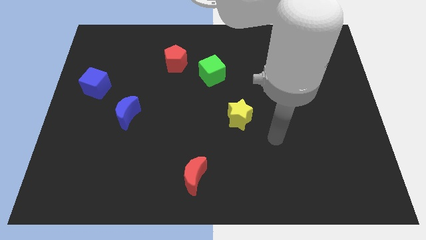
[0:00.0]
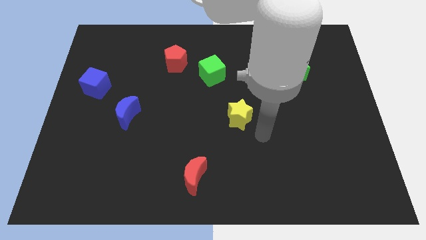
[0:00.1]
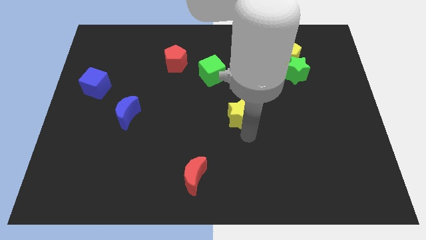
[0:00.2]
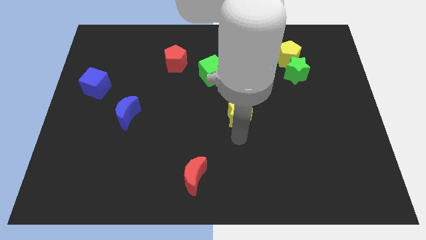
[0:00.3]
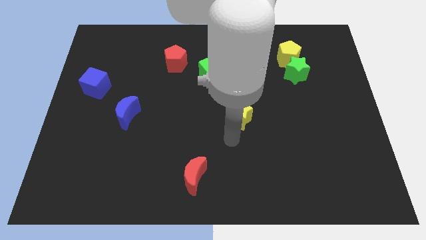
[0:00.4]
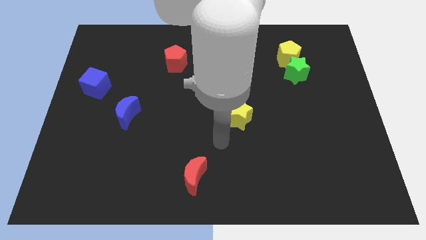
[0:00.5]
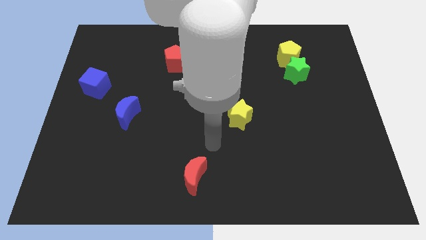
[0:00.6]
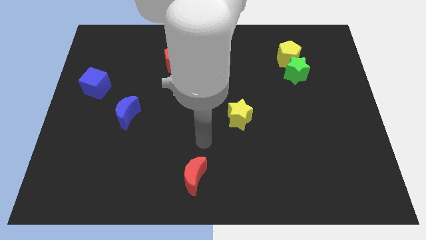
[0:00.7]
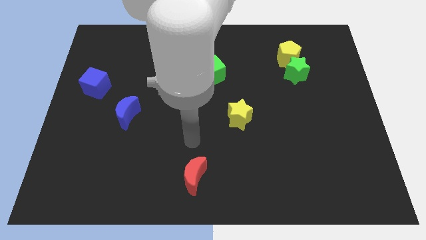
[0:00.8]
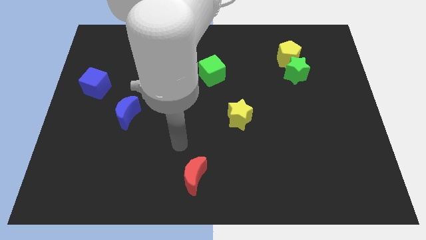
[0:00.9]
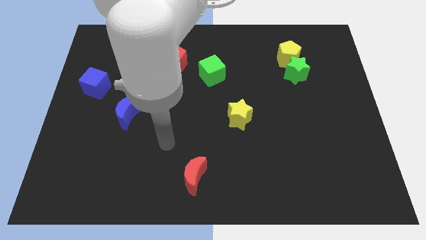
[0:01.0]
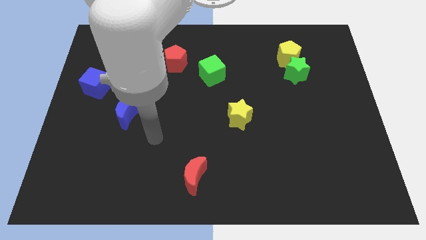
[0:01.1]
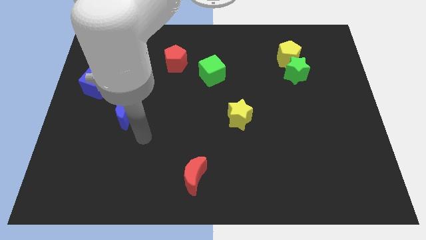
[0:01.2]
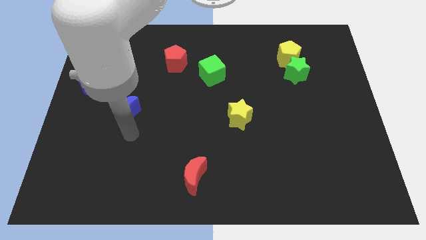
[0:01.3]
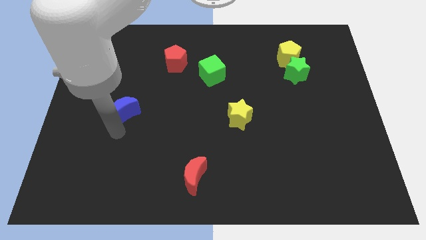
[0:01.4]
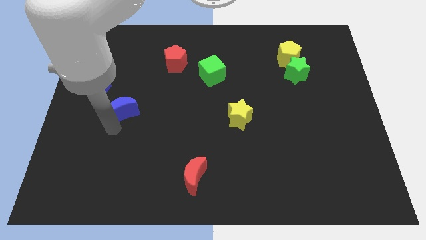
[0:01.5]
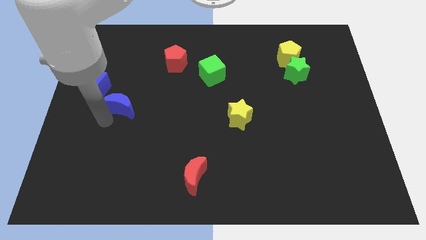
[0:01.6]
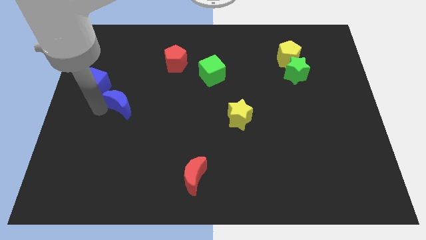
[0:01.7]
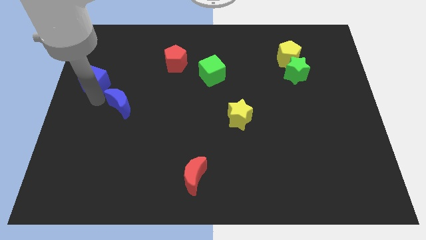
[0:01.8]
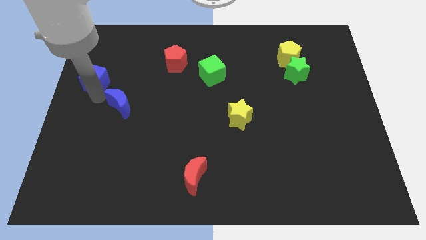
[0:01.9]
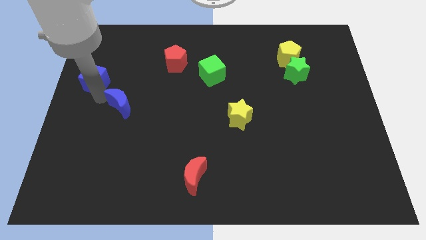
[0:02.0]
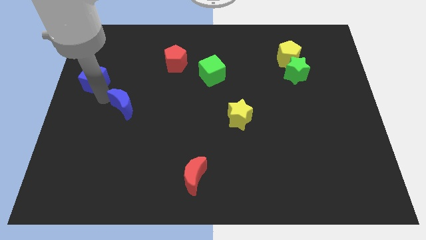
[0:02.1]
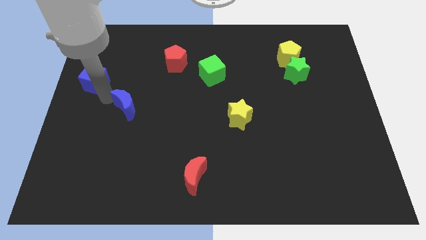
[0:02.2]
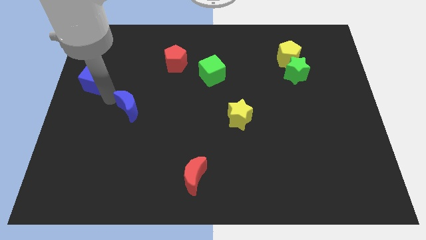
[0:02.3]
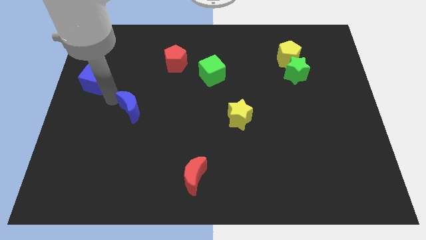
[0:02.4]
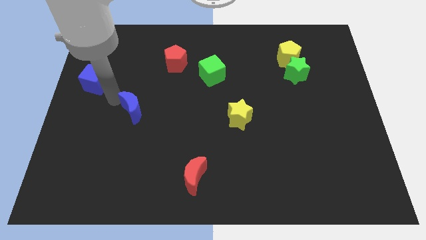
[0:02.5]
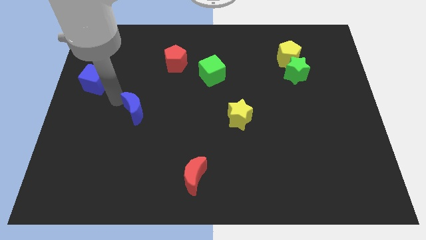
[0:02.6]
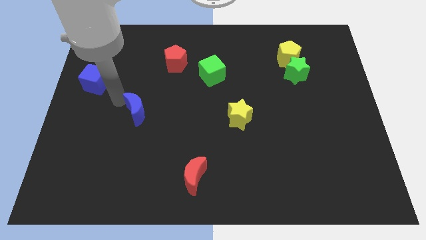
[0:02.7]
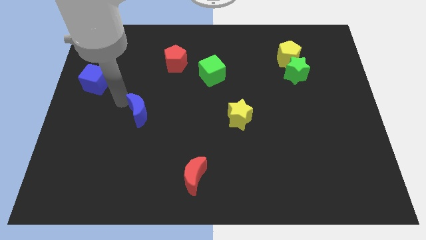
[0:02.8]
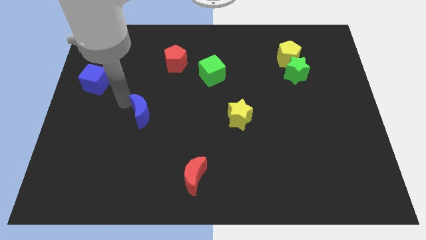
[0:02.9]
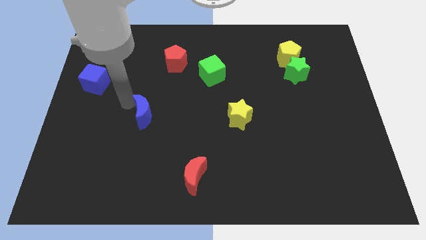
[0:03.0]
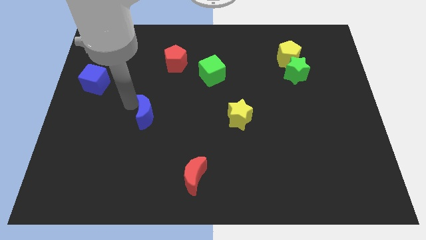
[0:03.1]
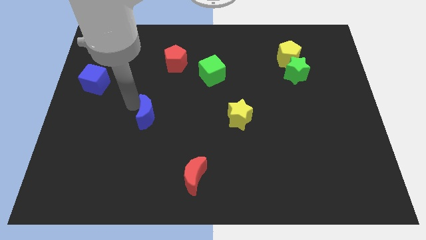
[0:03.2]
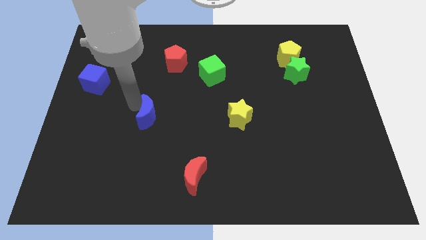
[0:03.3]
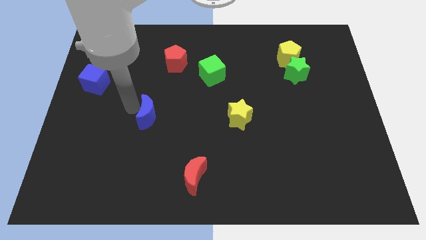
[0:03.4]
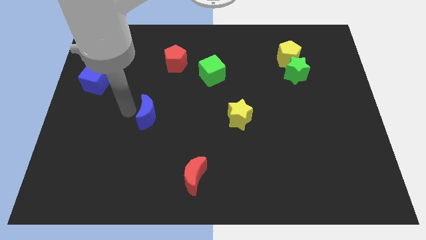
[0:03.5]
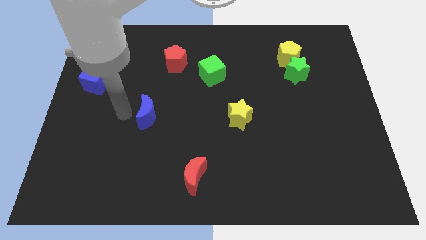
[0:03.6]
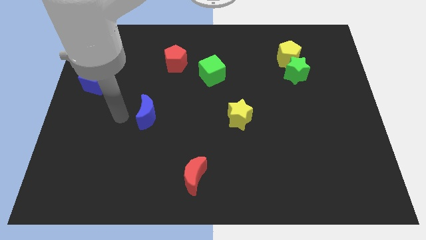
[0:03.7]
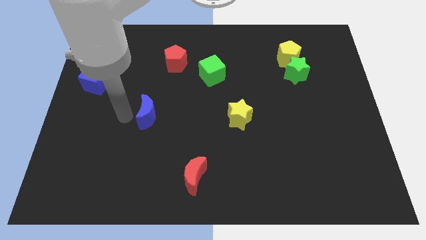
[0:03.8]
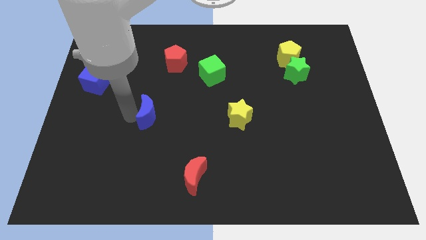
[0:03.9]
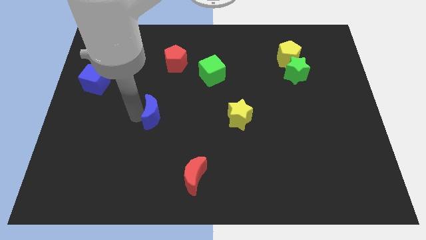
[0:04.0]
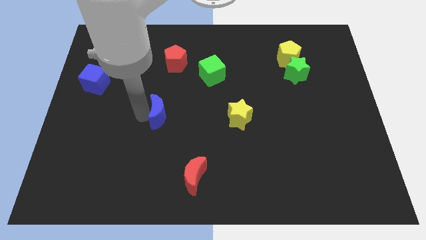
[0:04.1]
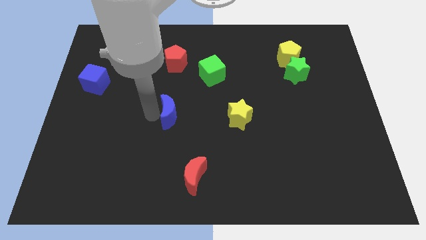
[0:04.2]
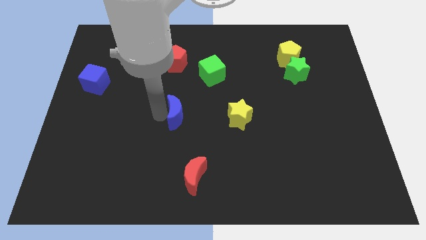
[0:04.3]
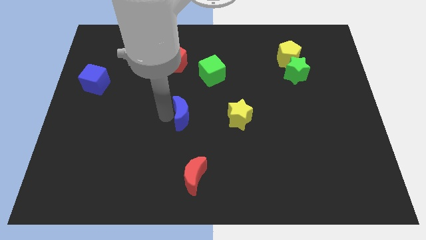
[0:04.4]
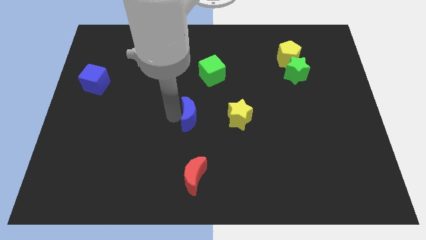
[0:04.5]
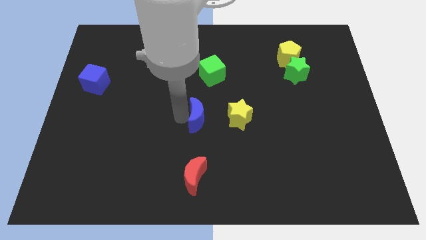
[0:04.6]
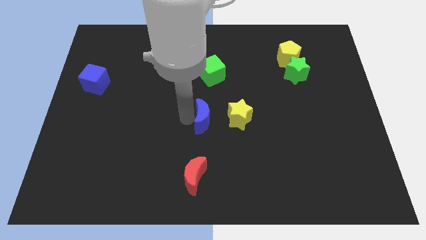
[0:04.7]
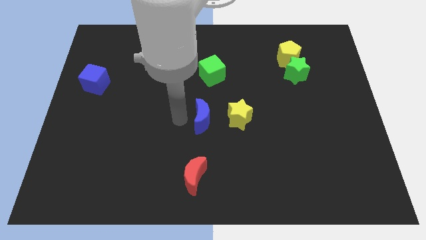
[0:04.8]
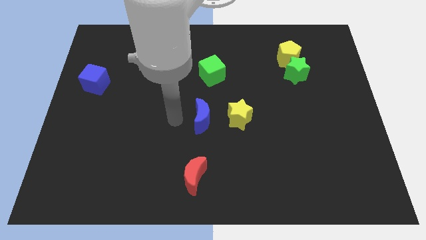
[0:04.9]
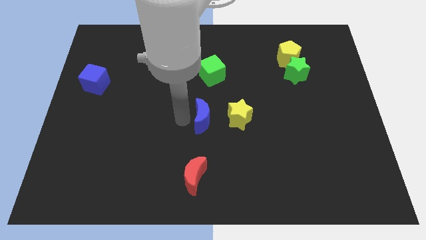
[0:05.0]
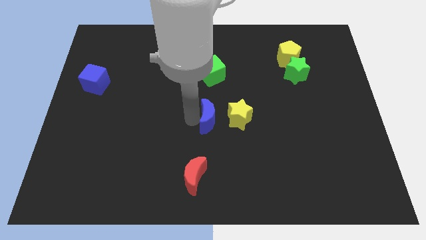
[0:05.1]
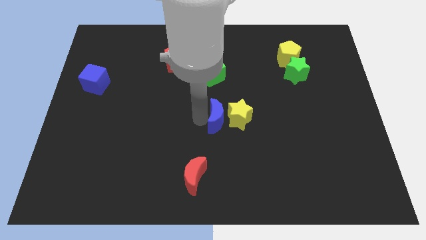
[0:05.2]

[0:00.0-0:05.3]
move the blue moon towards the yellow star

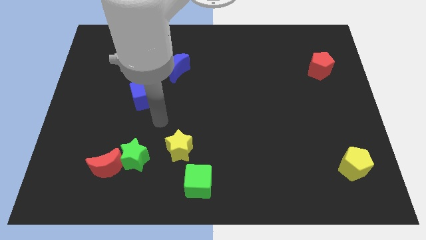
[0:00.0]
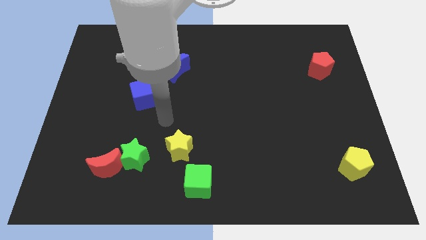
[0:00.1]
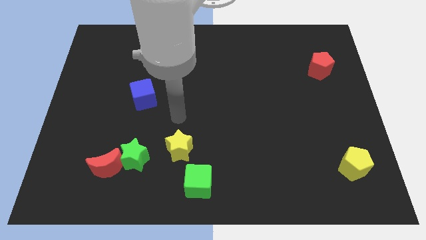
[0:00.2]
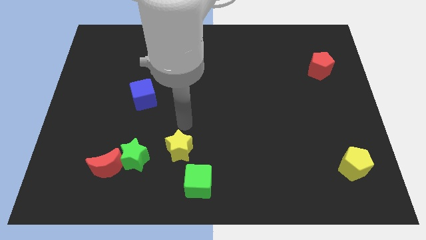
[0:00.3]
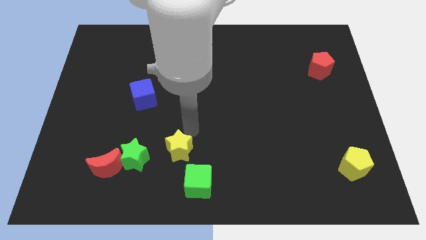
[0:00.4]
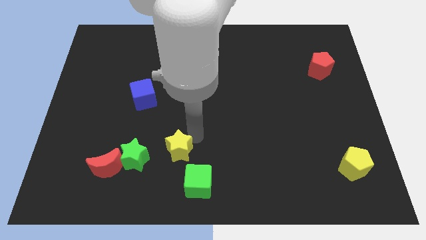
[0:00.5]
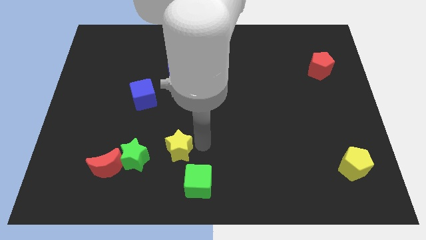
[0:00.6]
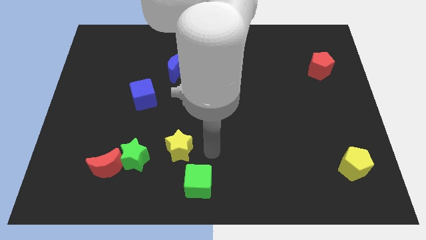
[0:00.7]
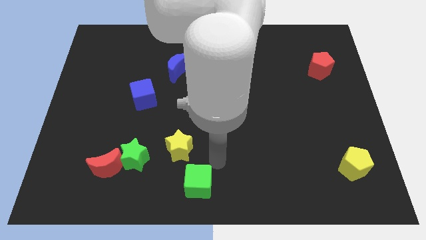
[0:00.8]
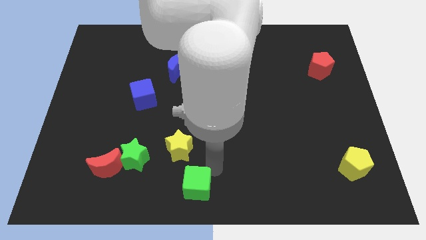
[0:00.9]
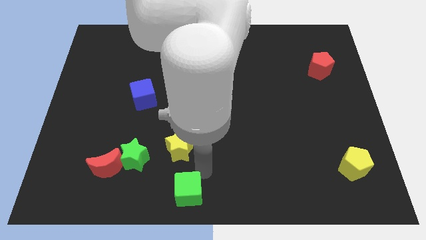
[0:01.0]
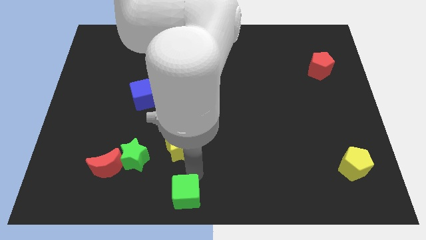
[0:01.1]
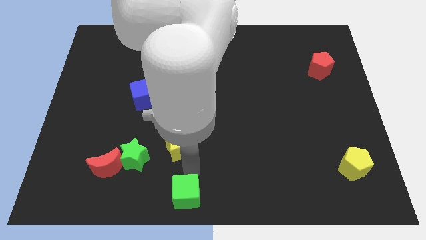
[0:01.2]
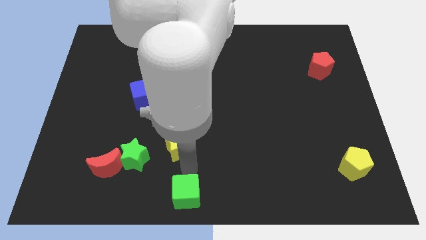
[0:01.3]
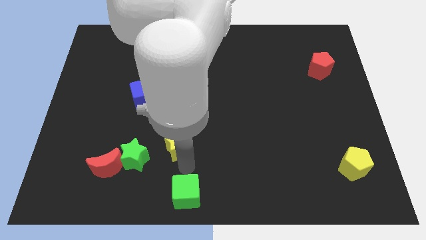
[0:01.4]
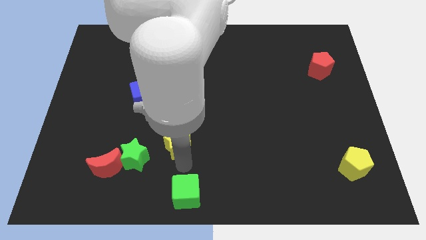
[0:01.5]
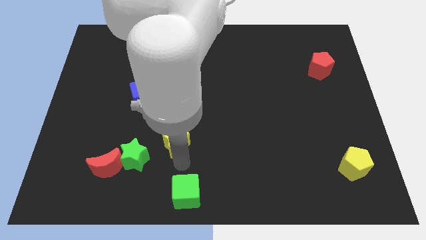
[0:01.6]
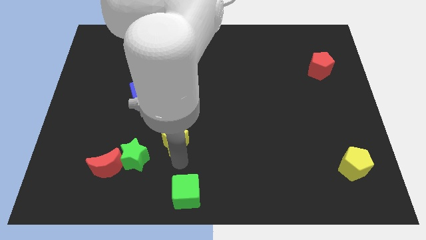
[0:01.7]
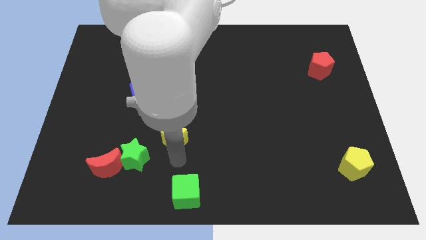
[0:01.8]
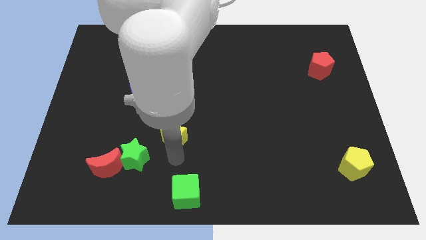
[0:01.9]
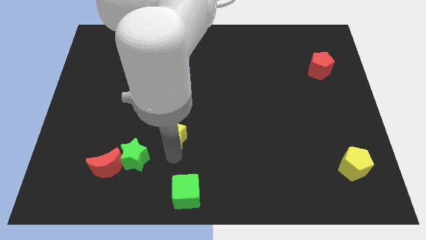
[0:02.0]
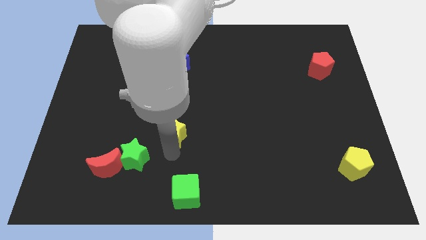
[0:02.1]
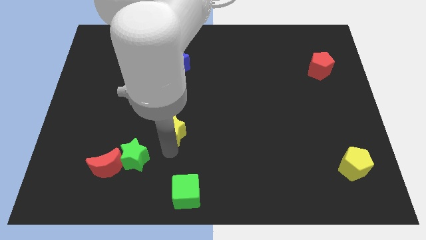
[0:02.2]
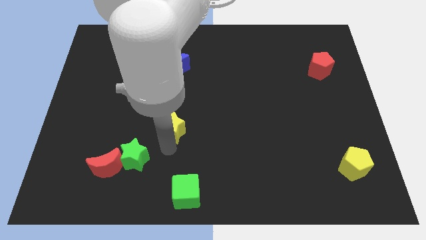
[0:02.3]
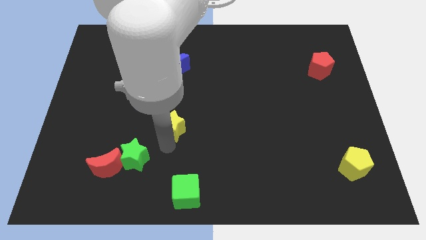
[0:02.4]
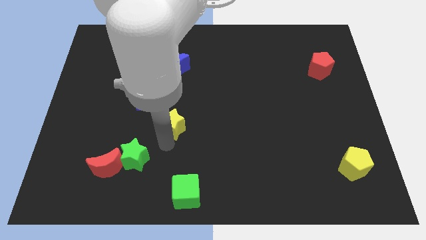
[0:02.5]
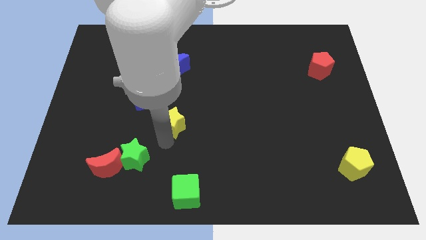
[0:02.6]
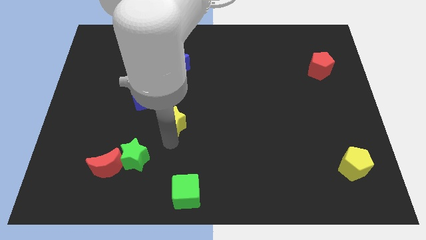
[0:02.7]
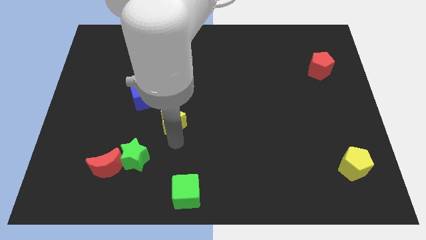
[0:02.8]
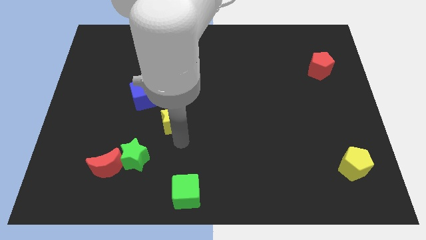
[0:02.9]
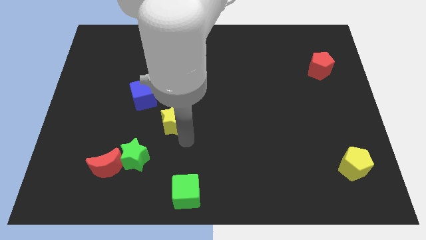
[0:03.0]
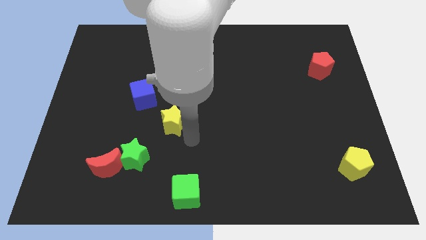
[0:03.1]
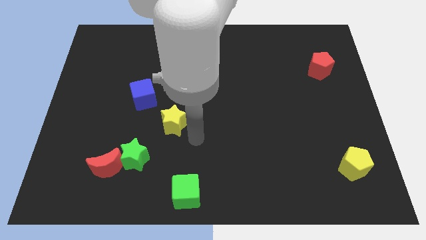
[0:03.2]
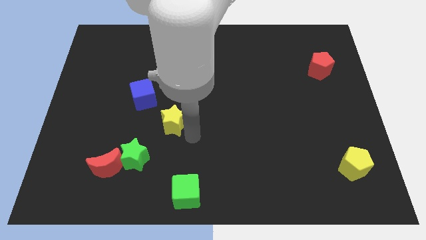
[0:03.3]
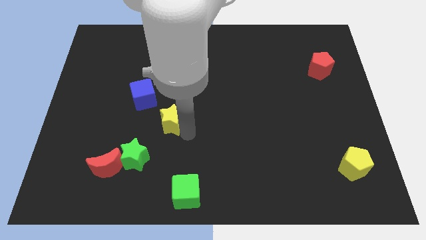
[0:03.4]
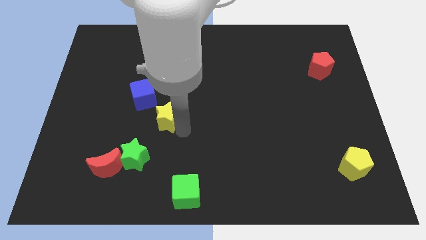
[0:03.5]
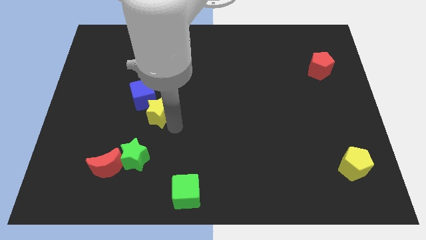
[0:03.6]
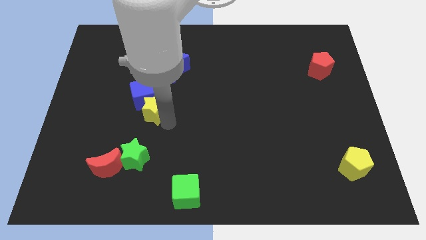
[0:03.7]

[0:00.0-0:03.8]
move the yellow star close to the blue cube
